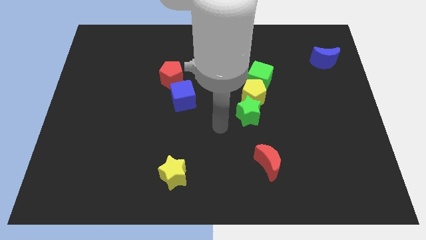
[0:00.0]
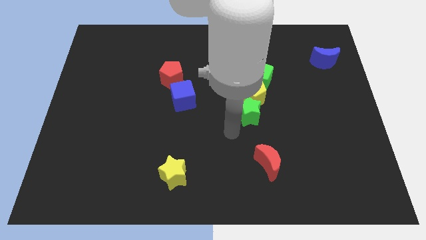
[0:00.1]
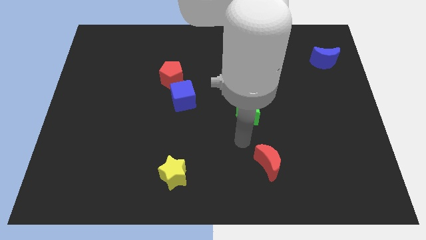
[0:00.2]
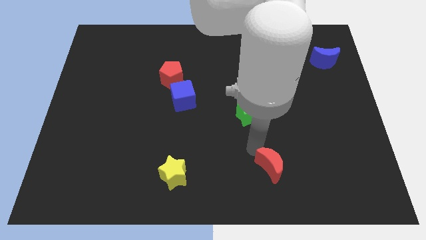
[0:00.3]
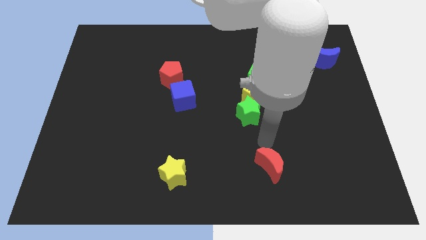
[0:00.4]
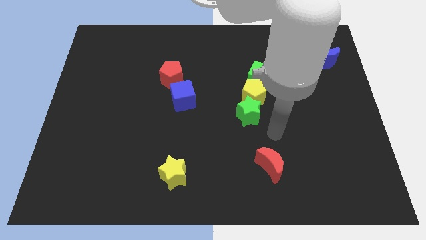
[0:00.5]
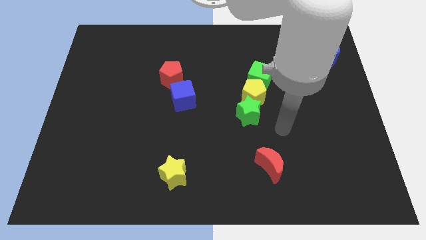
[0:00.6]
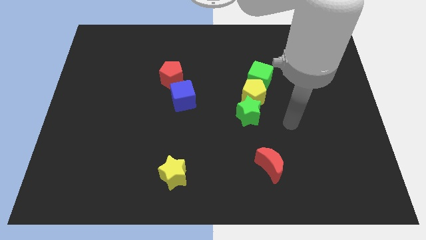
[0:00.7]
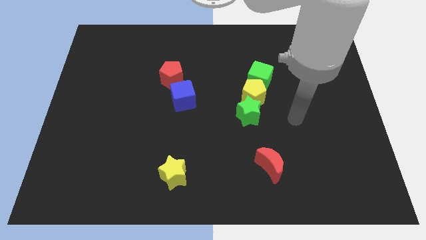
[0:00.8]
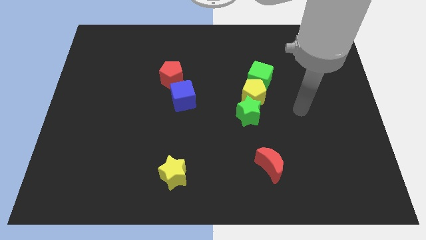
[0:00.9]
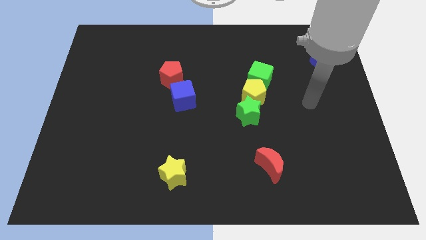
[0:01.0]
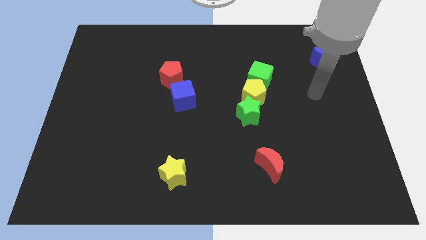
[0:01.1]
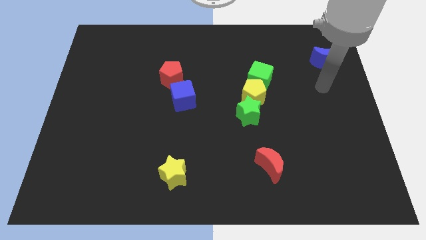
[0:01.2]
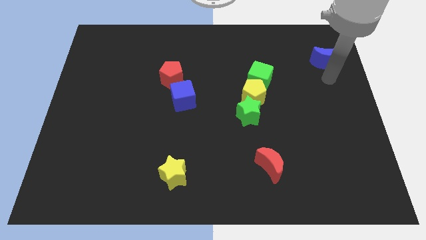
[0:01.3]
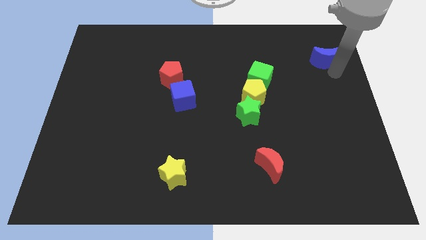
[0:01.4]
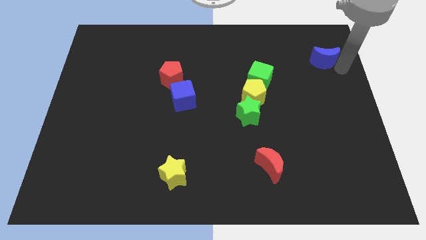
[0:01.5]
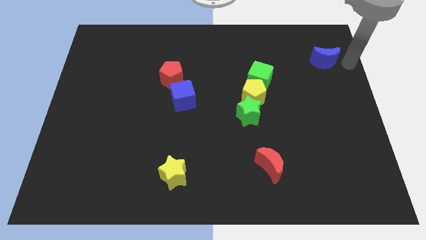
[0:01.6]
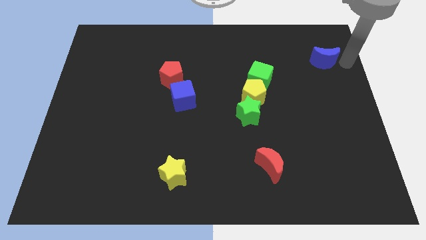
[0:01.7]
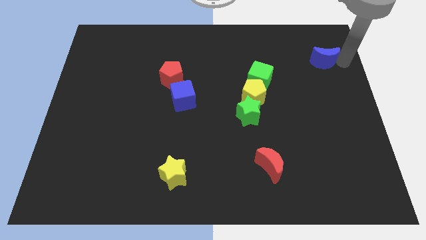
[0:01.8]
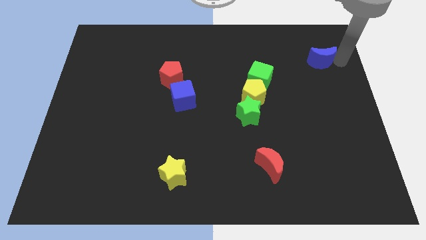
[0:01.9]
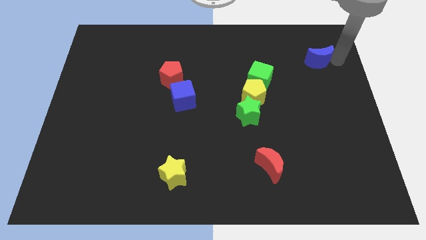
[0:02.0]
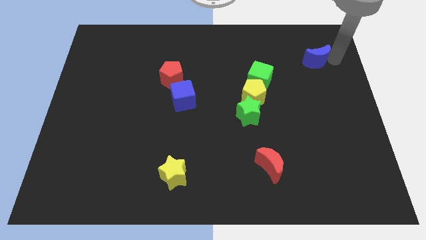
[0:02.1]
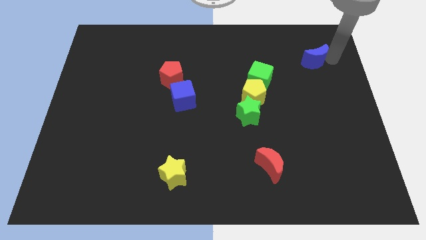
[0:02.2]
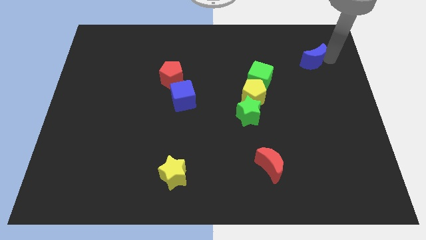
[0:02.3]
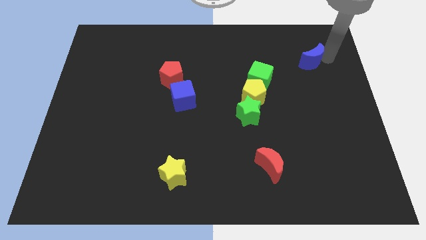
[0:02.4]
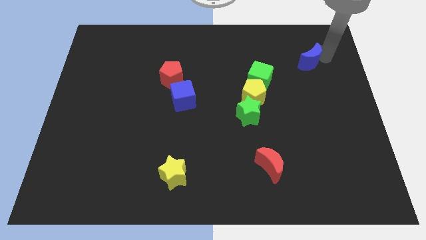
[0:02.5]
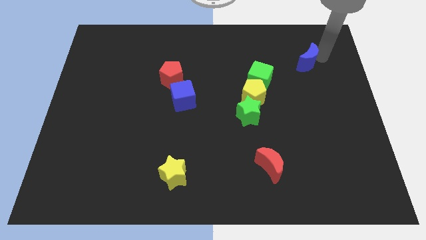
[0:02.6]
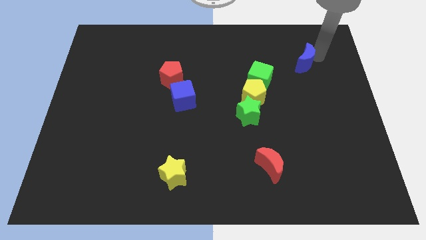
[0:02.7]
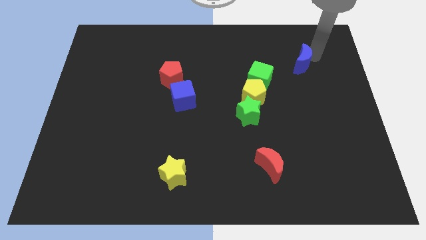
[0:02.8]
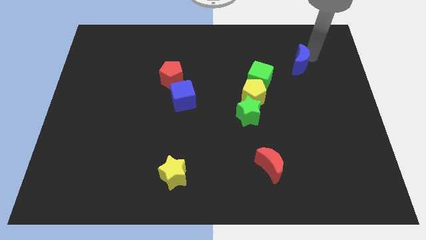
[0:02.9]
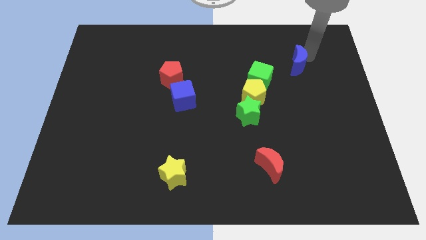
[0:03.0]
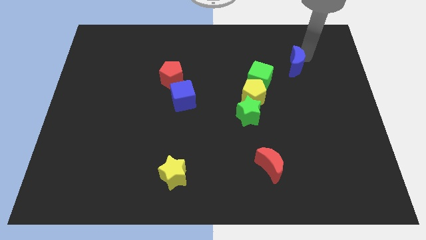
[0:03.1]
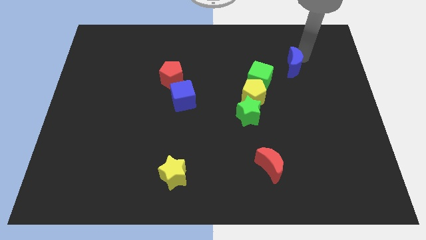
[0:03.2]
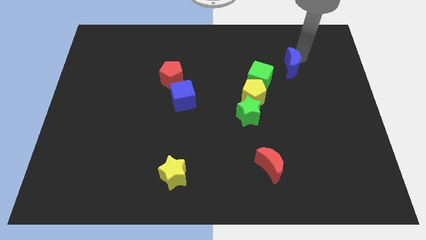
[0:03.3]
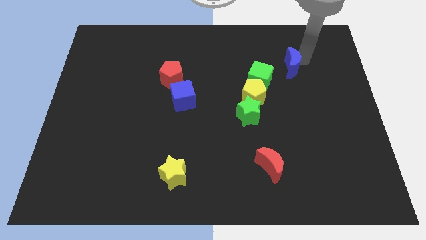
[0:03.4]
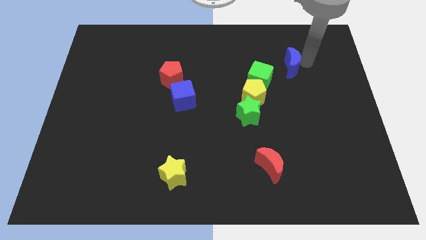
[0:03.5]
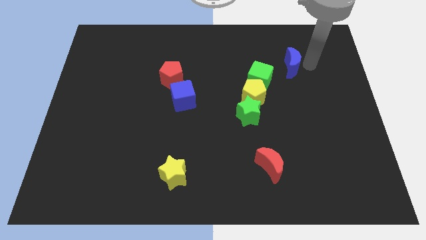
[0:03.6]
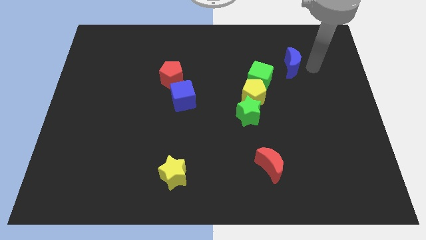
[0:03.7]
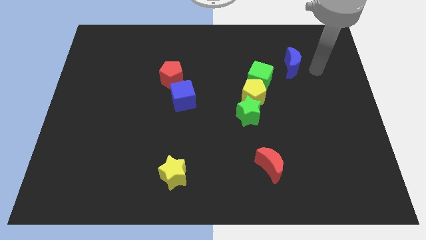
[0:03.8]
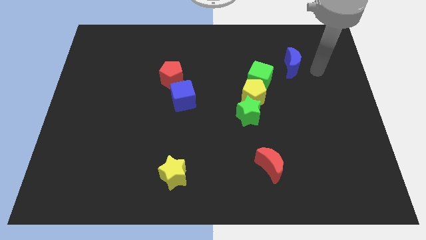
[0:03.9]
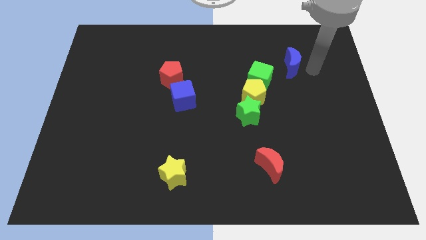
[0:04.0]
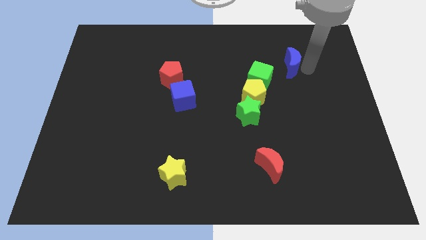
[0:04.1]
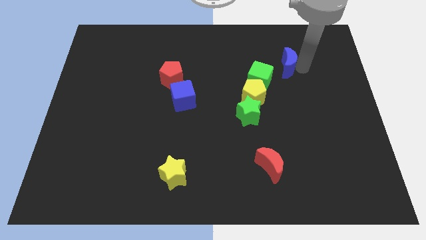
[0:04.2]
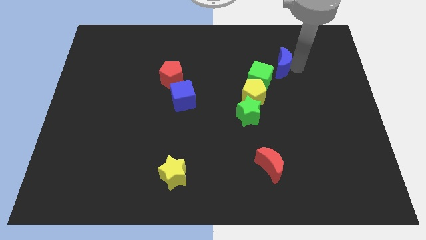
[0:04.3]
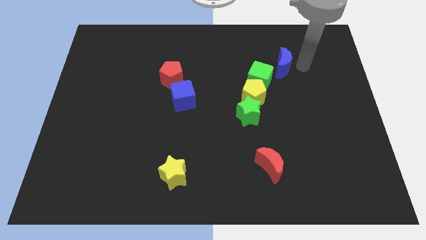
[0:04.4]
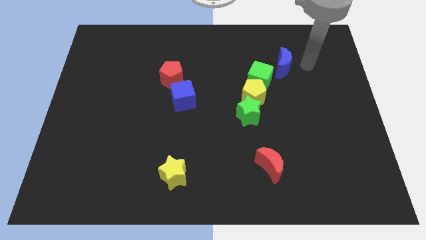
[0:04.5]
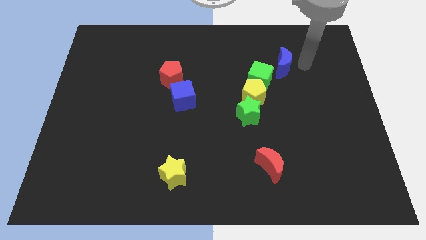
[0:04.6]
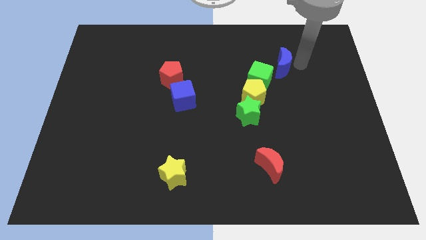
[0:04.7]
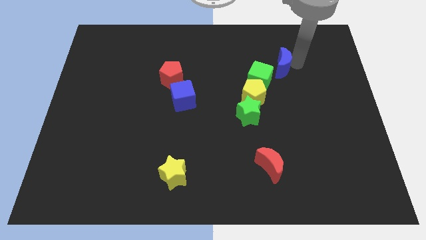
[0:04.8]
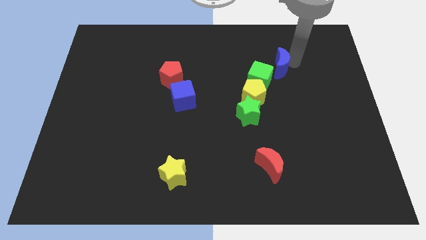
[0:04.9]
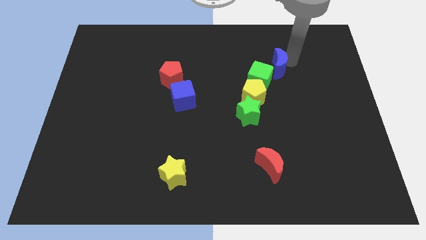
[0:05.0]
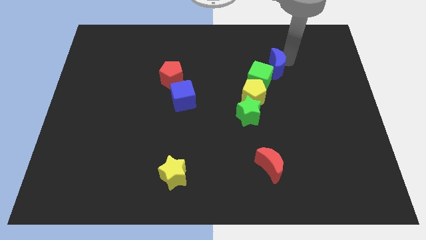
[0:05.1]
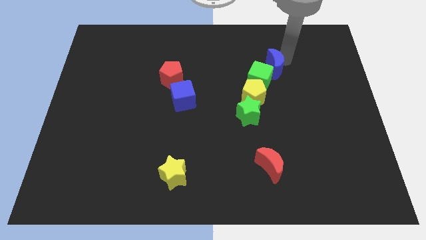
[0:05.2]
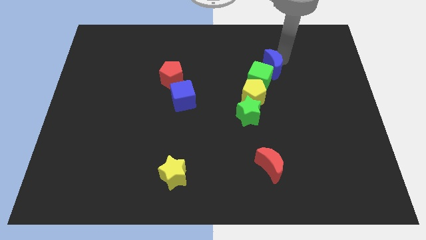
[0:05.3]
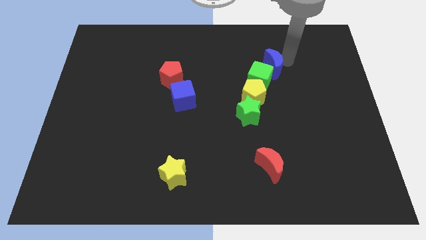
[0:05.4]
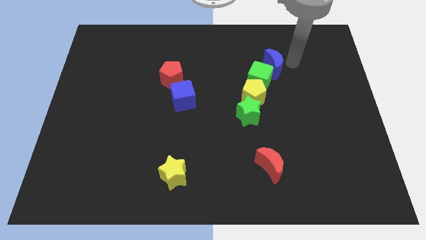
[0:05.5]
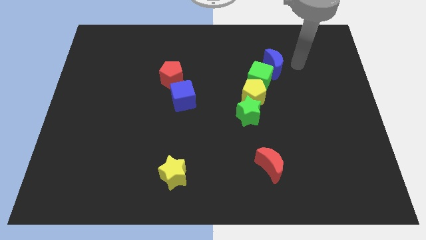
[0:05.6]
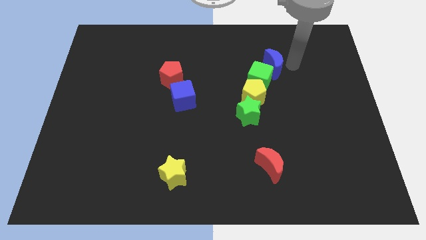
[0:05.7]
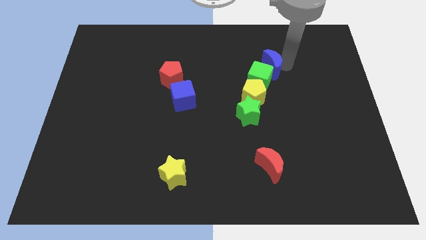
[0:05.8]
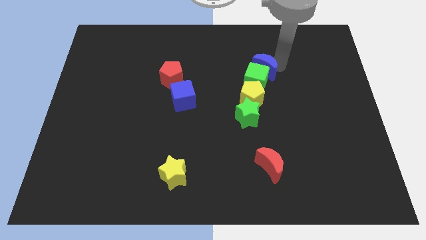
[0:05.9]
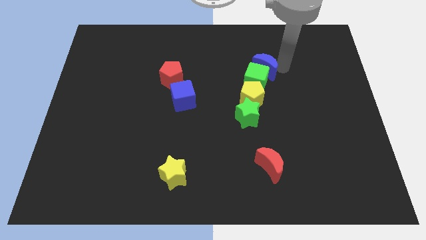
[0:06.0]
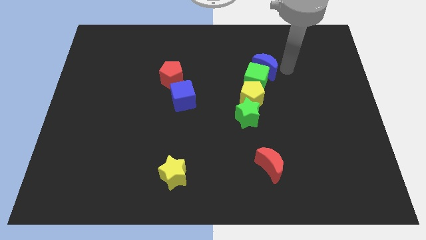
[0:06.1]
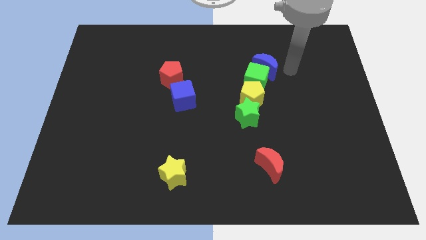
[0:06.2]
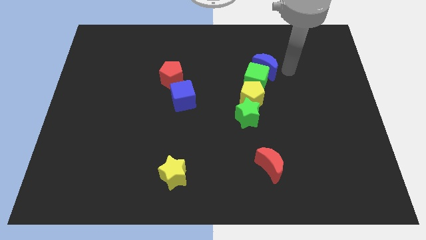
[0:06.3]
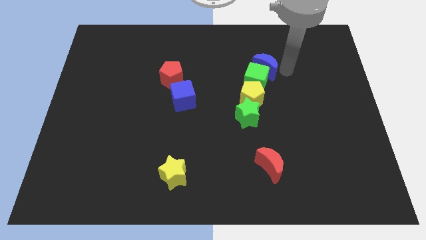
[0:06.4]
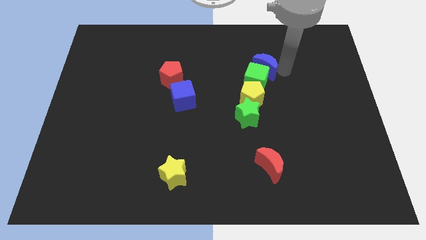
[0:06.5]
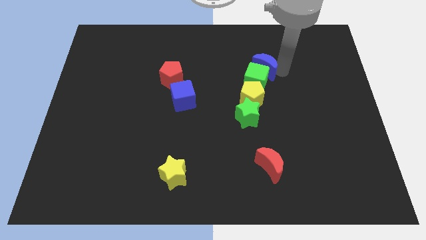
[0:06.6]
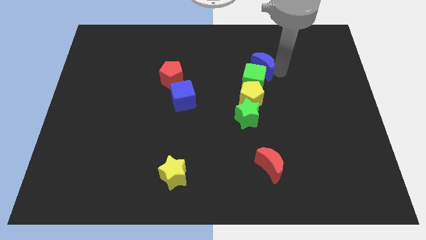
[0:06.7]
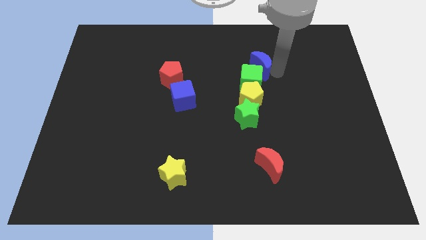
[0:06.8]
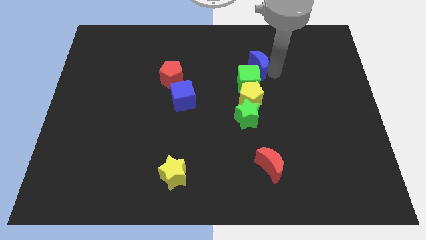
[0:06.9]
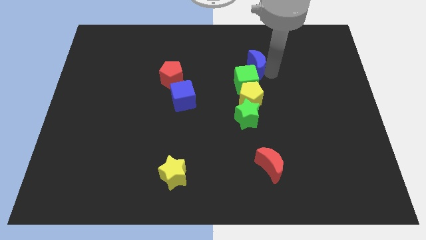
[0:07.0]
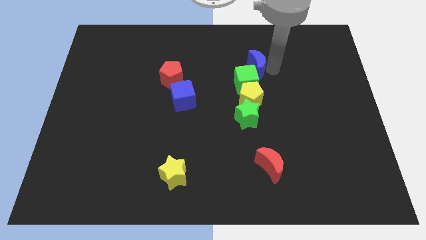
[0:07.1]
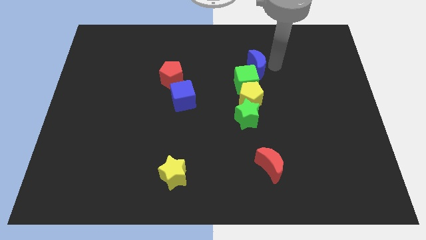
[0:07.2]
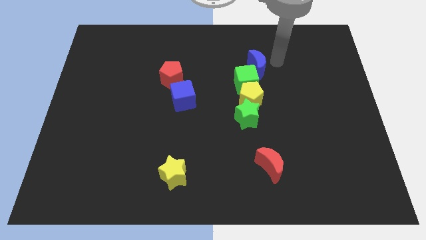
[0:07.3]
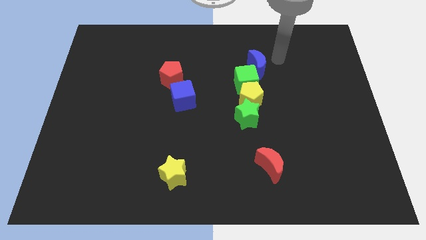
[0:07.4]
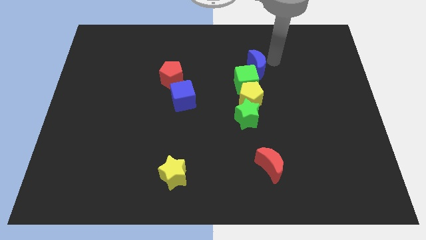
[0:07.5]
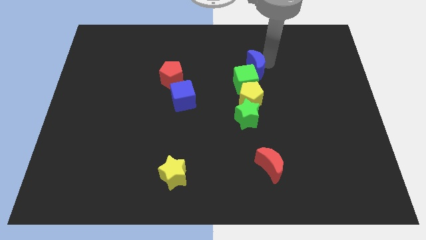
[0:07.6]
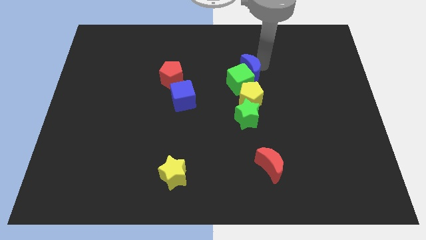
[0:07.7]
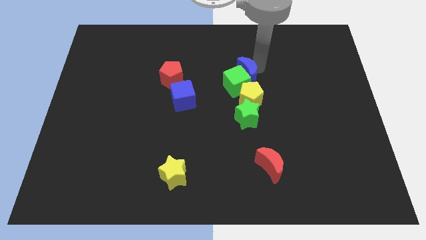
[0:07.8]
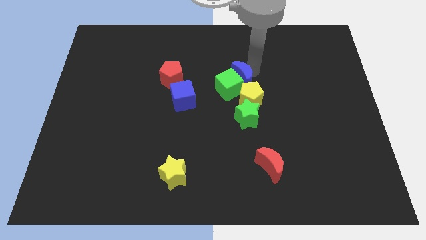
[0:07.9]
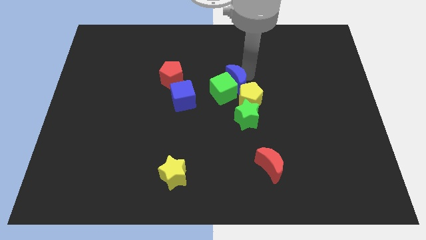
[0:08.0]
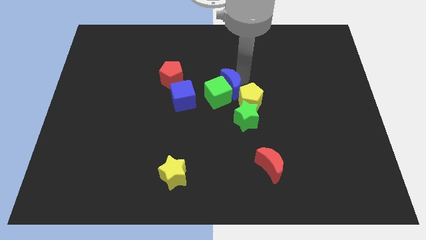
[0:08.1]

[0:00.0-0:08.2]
put the blue moon left of the yellow pentagon
